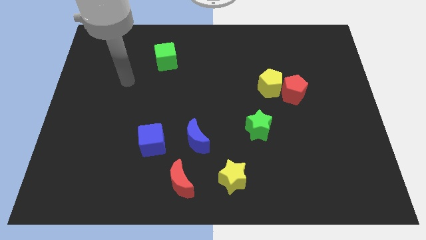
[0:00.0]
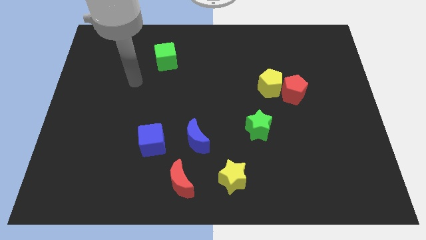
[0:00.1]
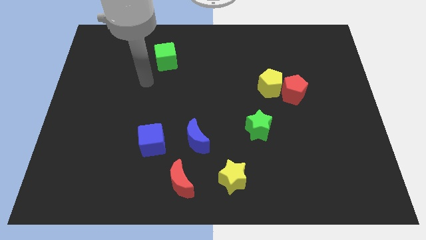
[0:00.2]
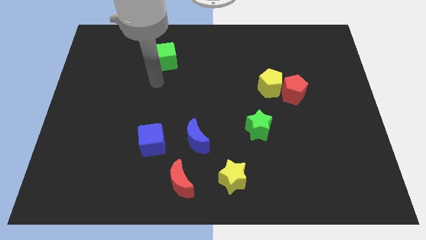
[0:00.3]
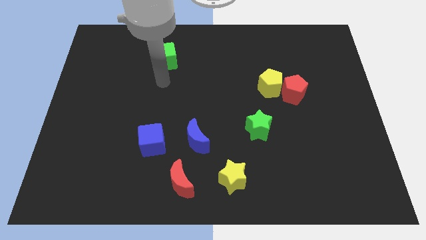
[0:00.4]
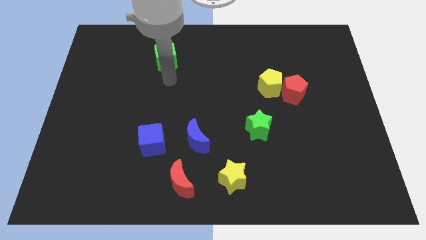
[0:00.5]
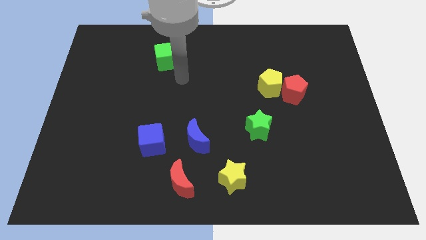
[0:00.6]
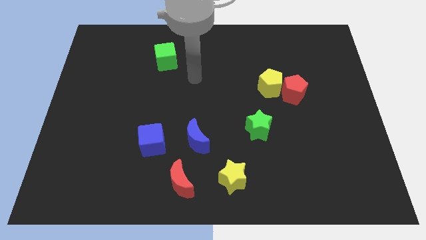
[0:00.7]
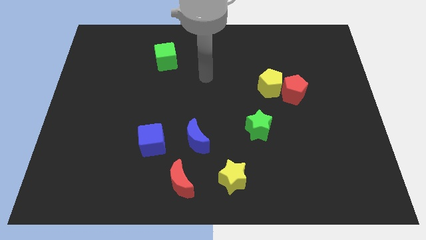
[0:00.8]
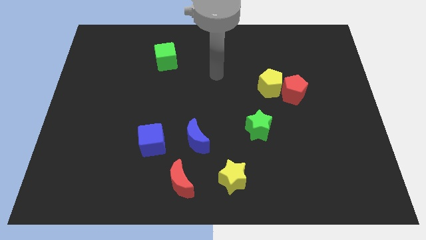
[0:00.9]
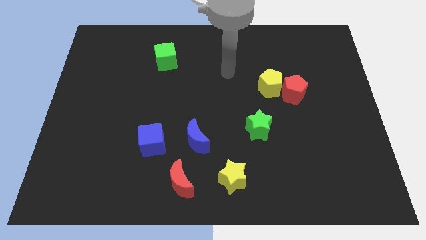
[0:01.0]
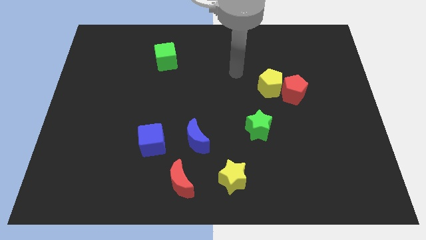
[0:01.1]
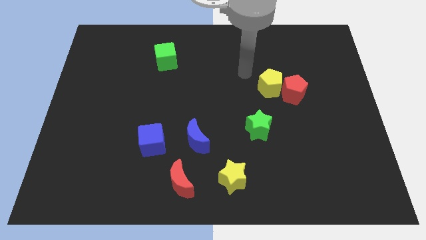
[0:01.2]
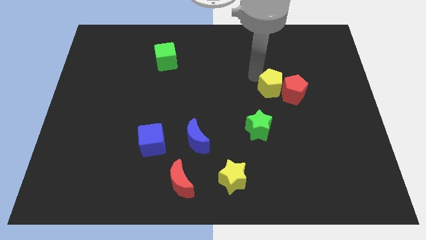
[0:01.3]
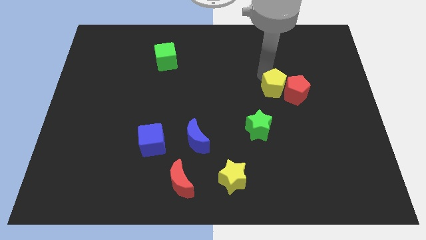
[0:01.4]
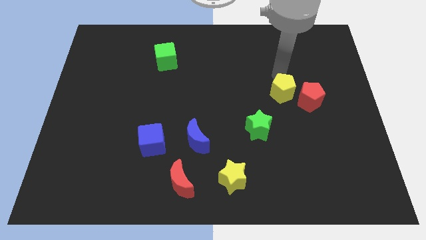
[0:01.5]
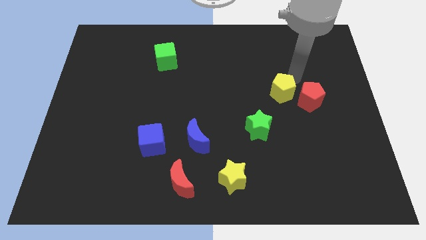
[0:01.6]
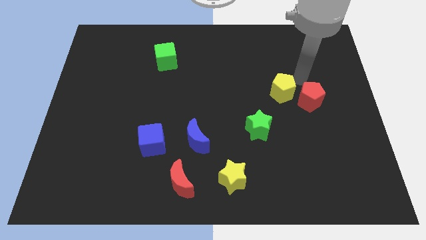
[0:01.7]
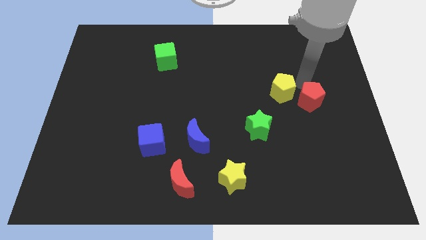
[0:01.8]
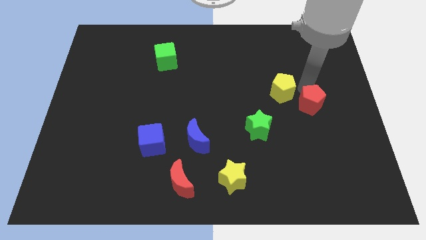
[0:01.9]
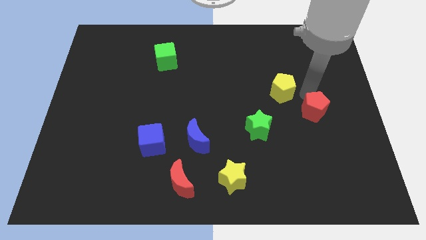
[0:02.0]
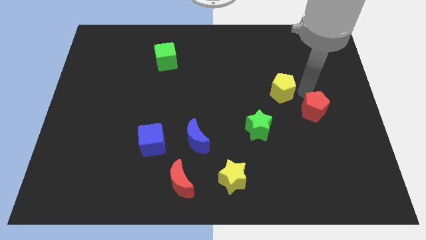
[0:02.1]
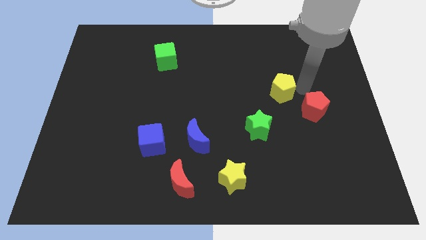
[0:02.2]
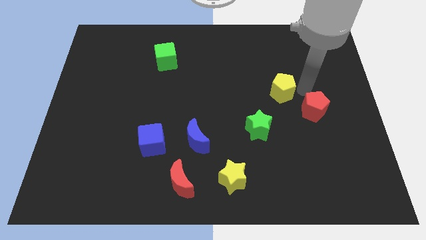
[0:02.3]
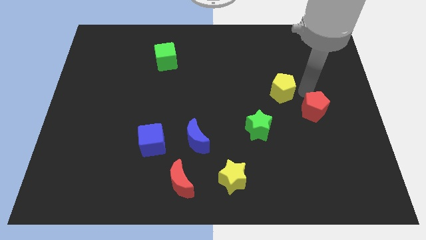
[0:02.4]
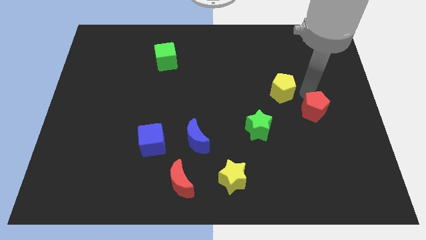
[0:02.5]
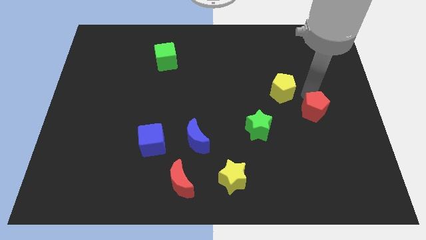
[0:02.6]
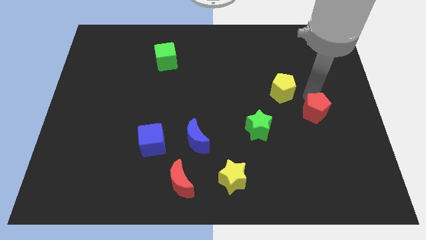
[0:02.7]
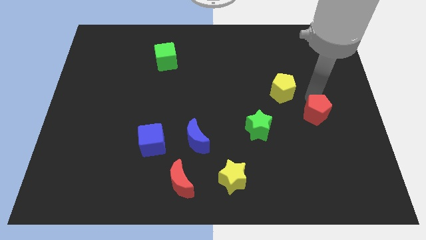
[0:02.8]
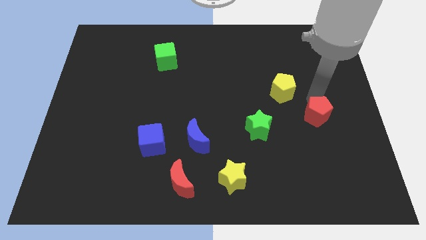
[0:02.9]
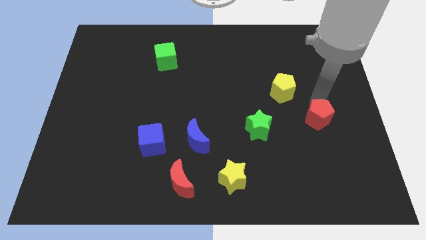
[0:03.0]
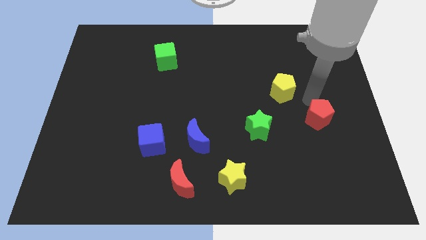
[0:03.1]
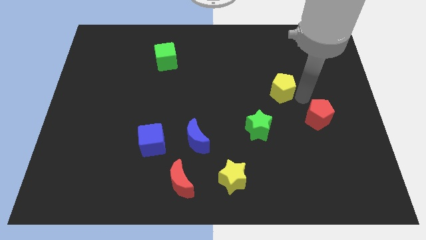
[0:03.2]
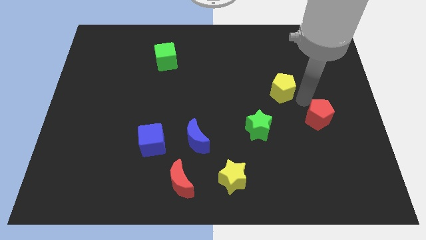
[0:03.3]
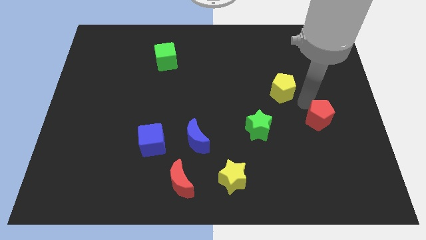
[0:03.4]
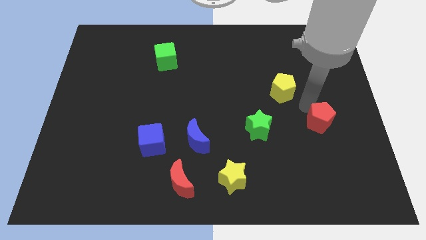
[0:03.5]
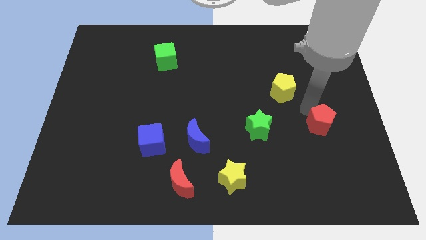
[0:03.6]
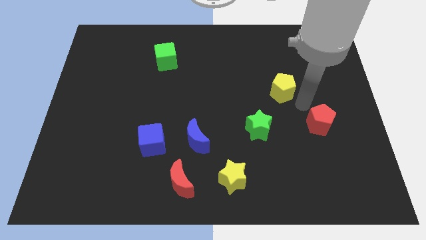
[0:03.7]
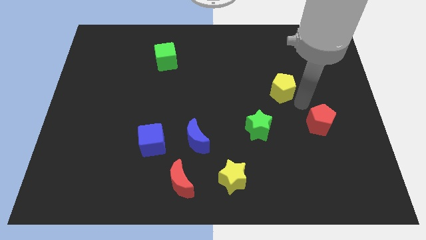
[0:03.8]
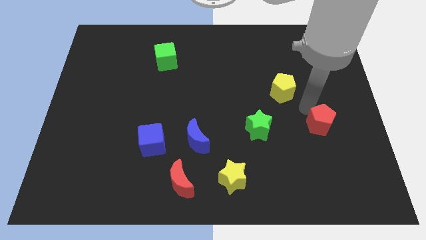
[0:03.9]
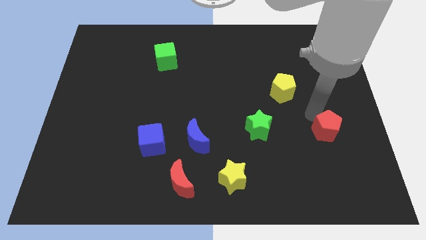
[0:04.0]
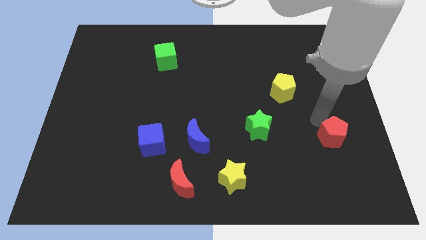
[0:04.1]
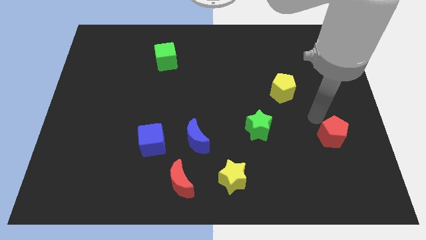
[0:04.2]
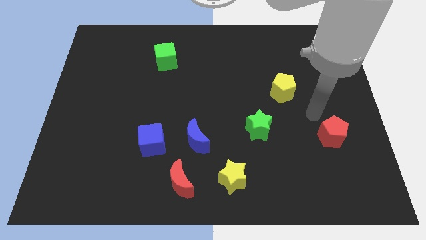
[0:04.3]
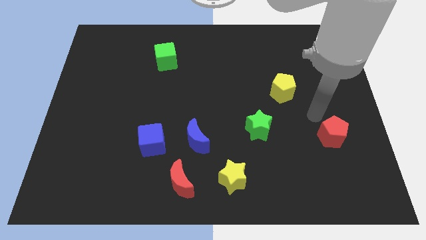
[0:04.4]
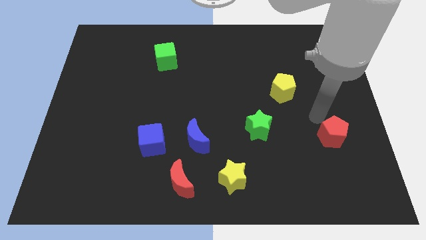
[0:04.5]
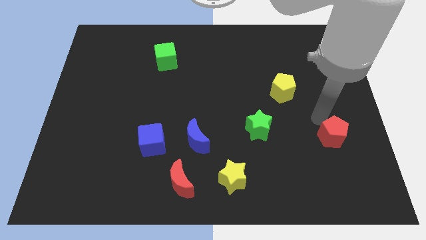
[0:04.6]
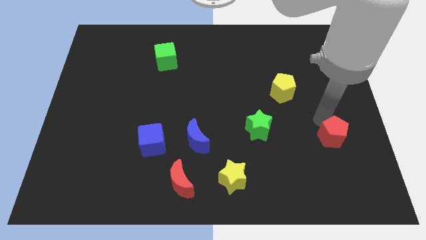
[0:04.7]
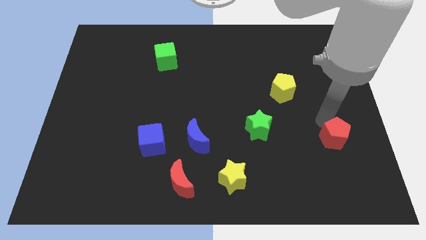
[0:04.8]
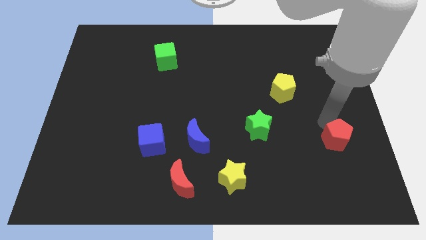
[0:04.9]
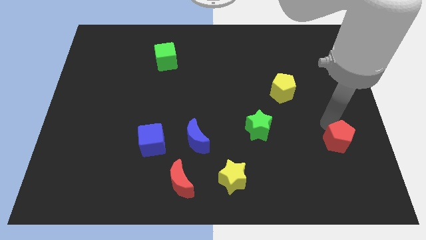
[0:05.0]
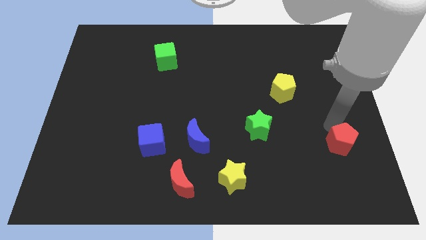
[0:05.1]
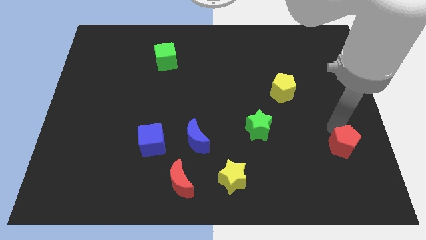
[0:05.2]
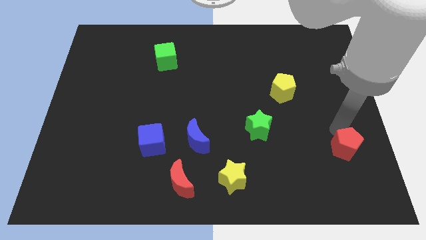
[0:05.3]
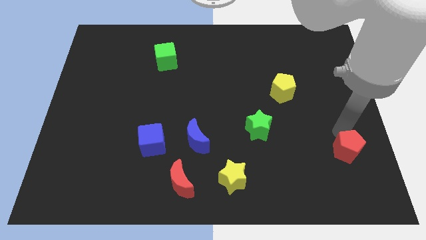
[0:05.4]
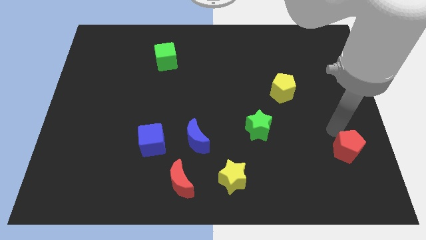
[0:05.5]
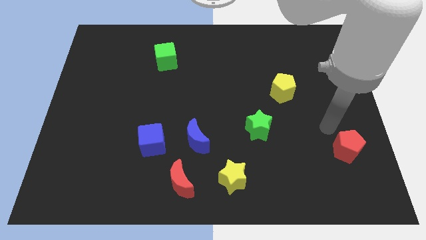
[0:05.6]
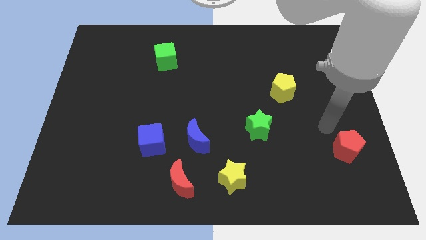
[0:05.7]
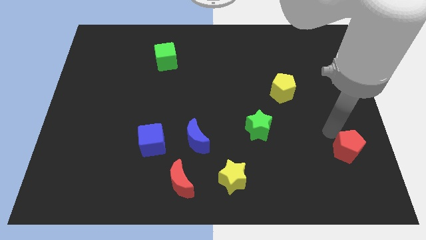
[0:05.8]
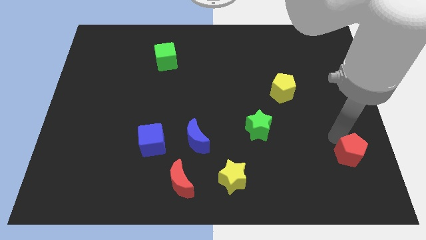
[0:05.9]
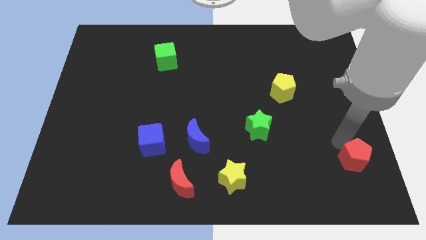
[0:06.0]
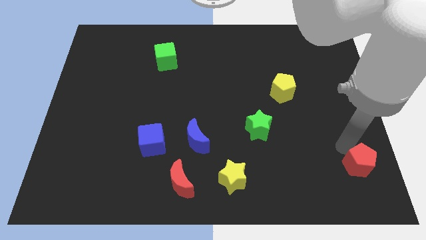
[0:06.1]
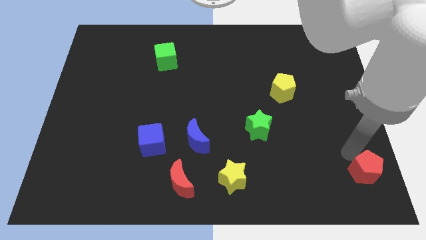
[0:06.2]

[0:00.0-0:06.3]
push the red pentagon to the lower right corner

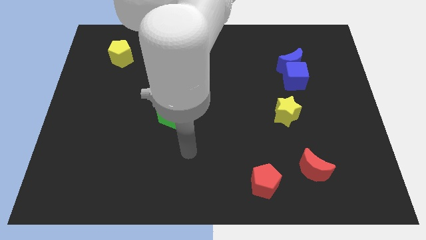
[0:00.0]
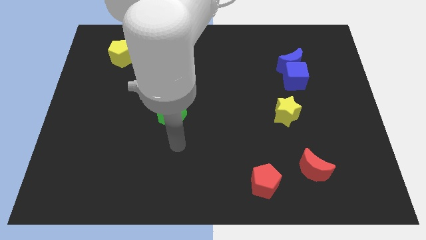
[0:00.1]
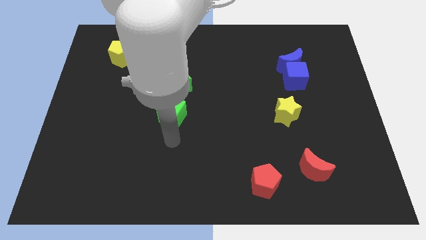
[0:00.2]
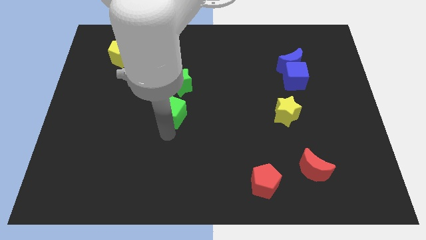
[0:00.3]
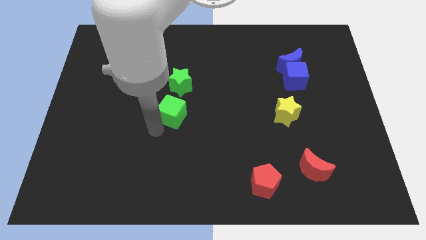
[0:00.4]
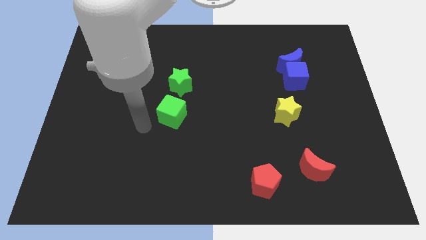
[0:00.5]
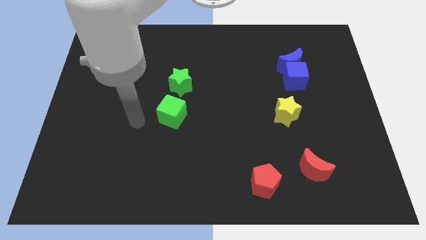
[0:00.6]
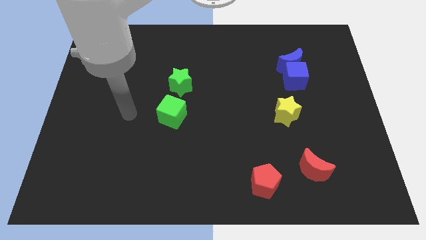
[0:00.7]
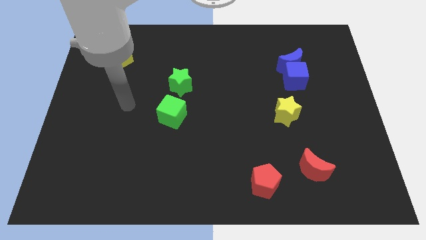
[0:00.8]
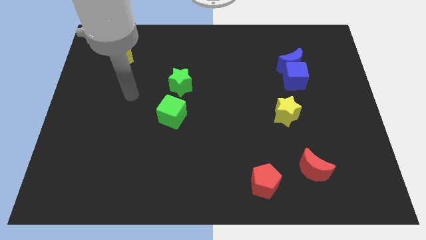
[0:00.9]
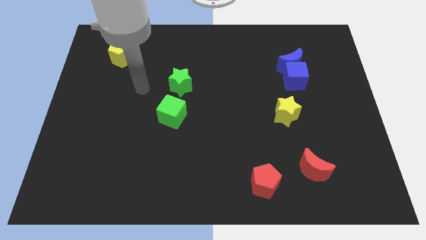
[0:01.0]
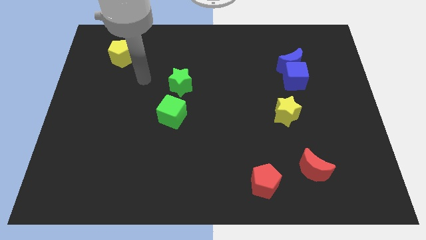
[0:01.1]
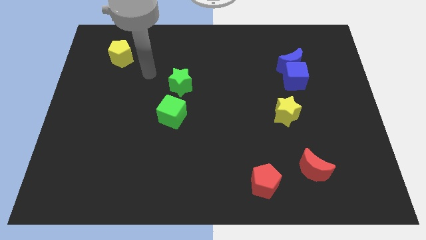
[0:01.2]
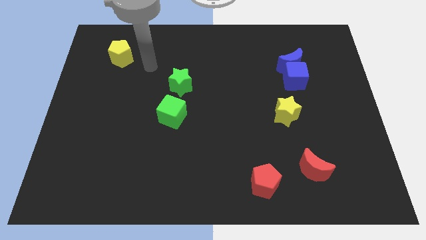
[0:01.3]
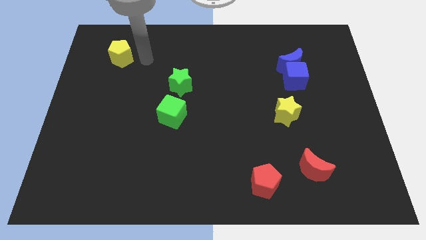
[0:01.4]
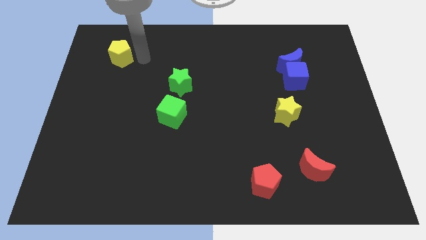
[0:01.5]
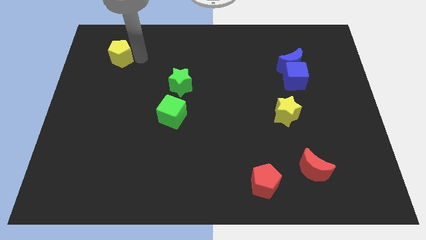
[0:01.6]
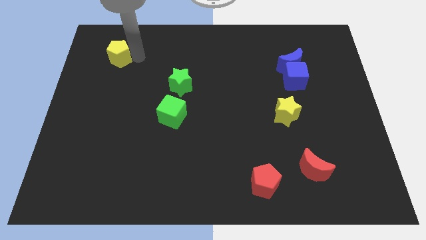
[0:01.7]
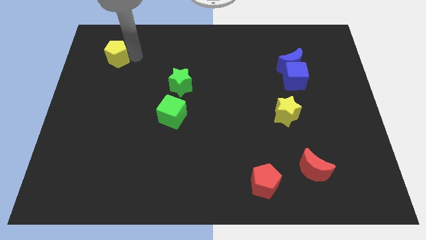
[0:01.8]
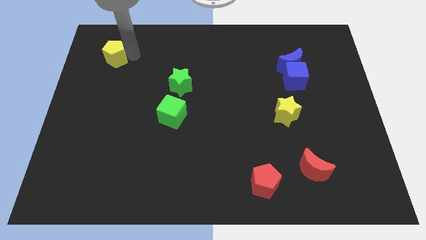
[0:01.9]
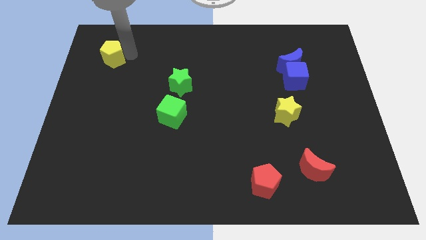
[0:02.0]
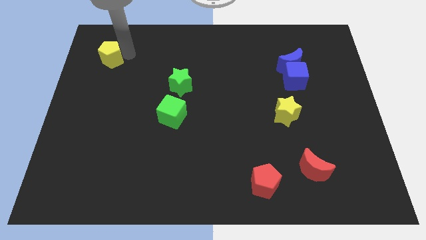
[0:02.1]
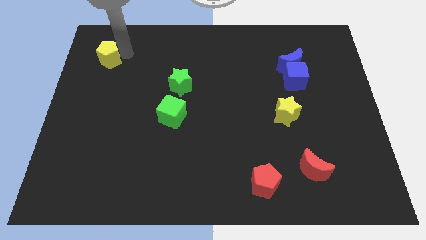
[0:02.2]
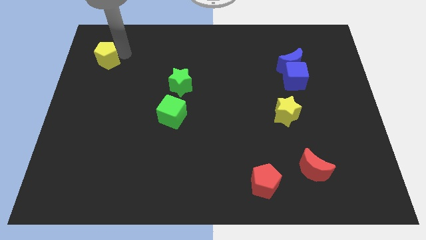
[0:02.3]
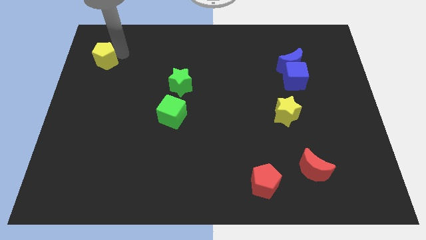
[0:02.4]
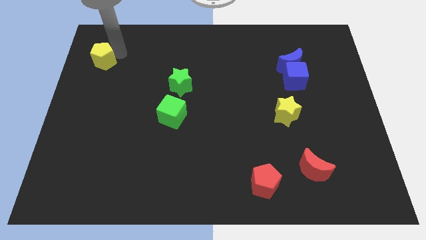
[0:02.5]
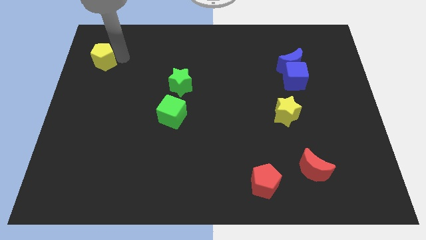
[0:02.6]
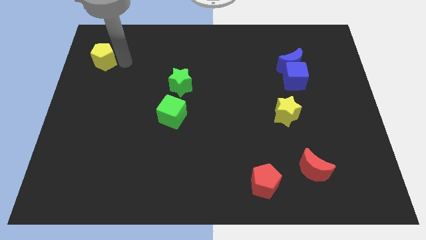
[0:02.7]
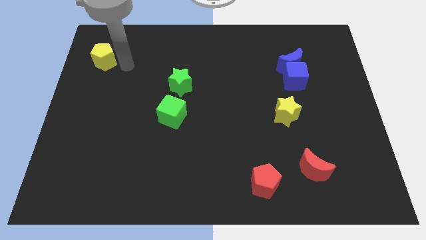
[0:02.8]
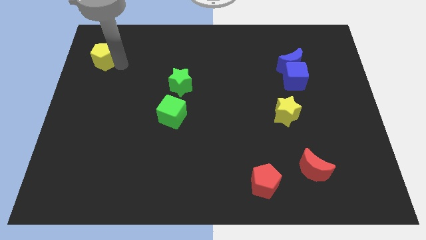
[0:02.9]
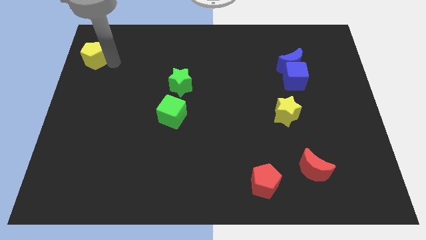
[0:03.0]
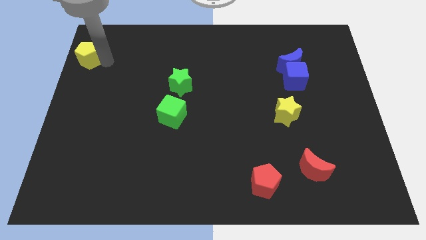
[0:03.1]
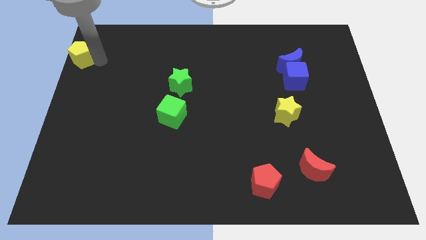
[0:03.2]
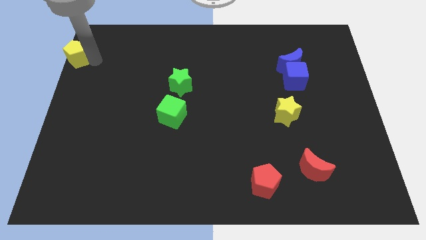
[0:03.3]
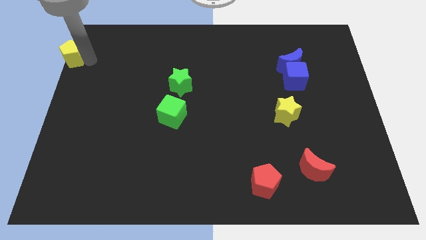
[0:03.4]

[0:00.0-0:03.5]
move the yellow pentagon to the top left of the board
